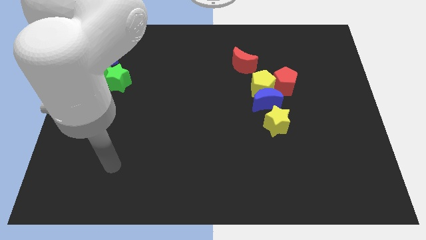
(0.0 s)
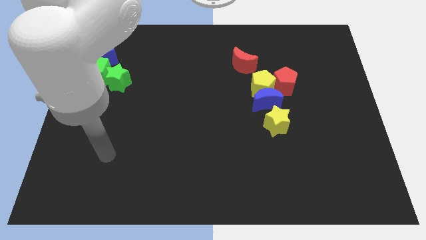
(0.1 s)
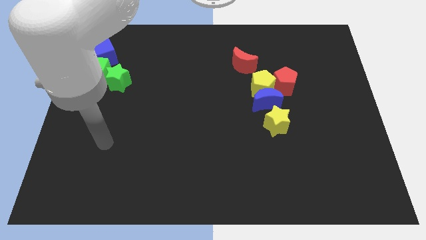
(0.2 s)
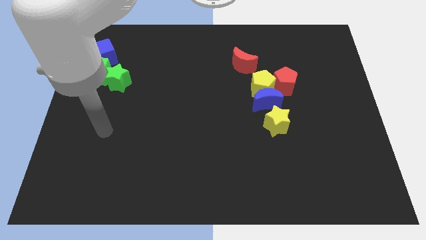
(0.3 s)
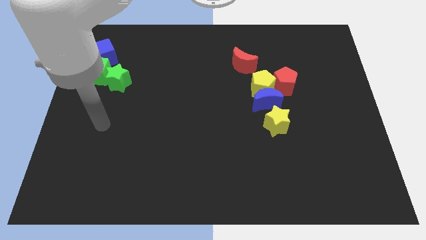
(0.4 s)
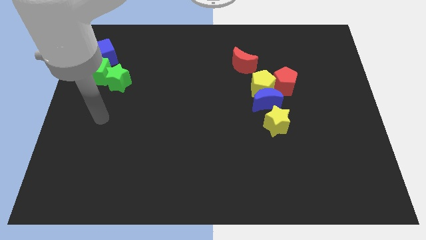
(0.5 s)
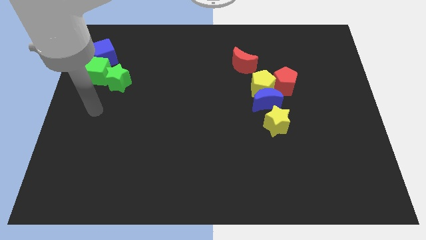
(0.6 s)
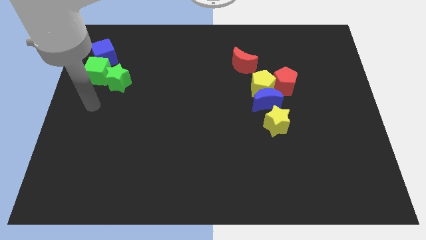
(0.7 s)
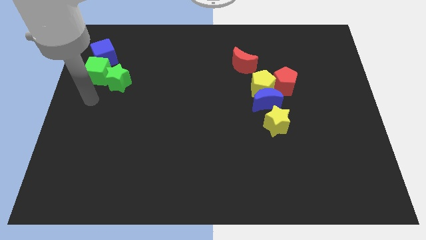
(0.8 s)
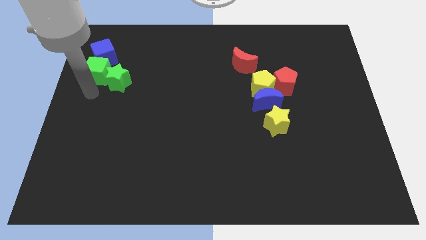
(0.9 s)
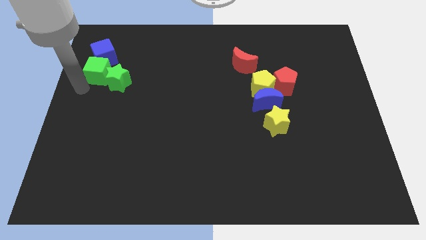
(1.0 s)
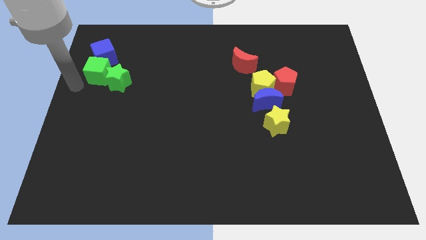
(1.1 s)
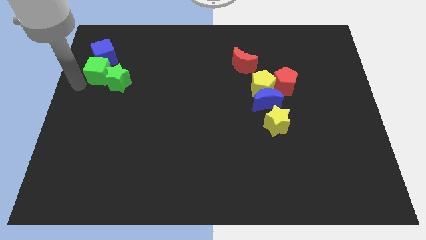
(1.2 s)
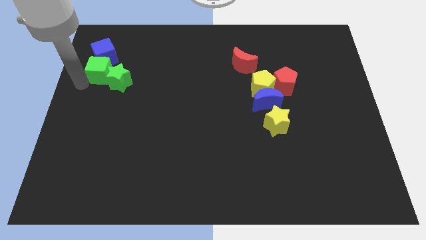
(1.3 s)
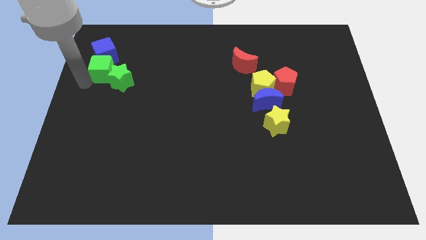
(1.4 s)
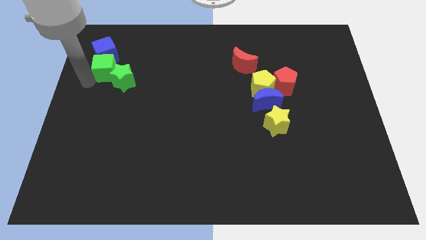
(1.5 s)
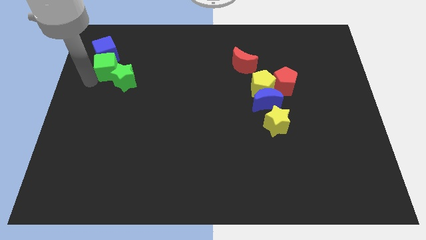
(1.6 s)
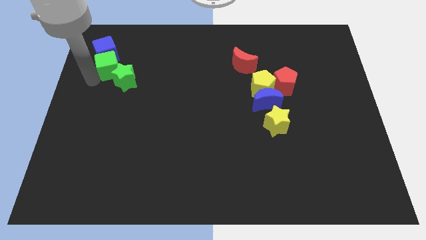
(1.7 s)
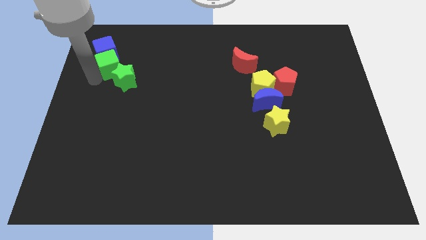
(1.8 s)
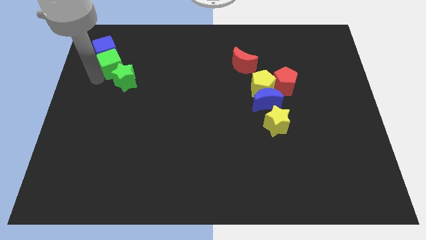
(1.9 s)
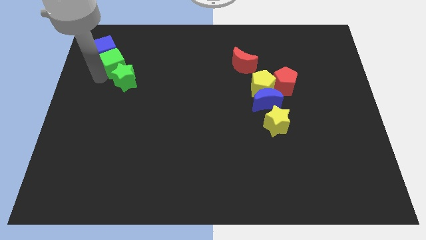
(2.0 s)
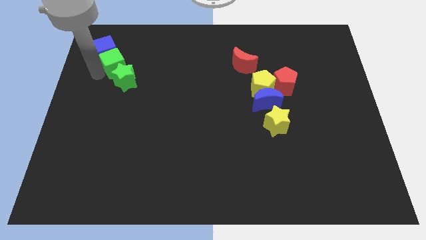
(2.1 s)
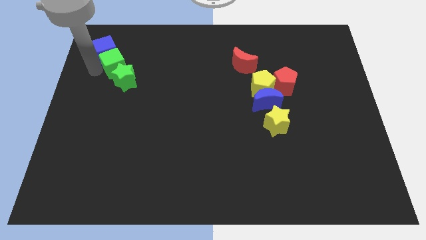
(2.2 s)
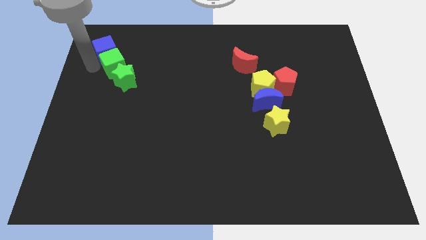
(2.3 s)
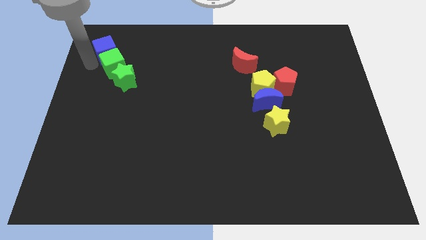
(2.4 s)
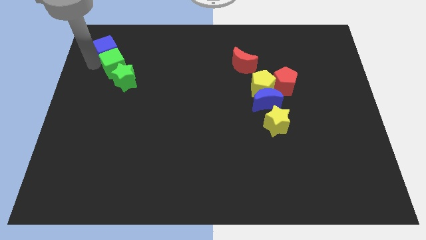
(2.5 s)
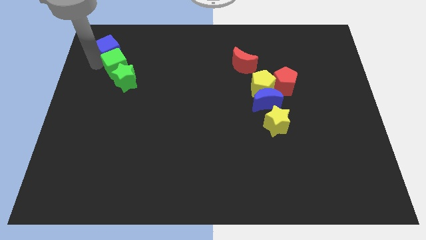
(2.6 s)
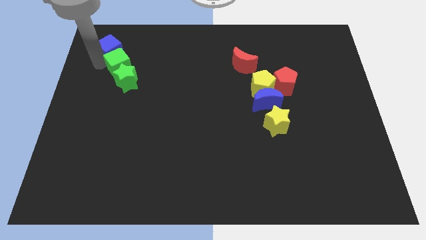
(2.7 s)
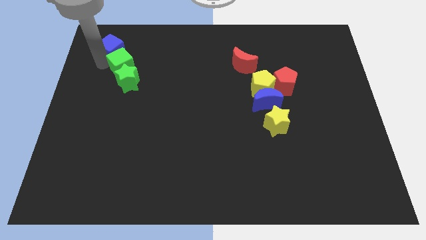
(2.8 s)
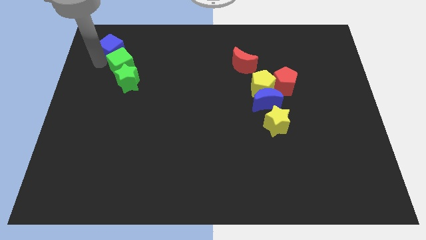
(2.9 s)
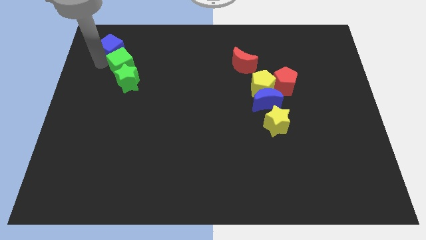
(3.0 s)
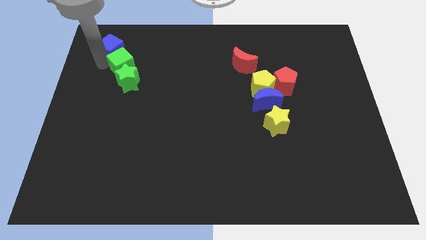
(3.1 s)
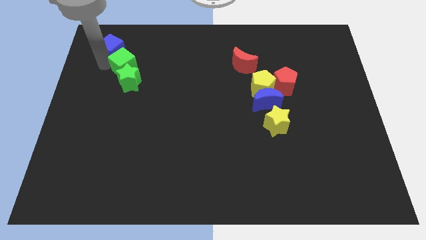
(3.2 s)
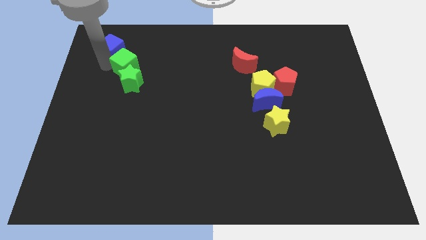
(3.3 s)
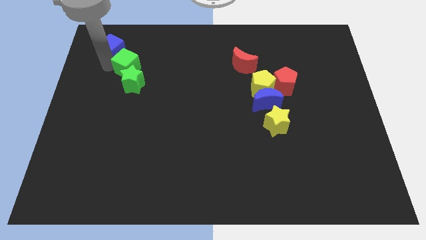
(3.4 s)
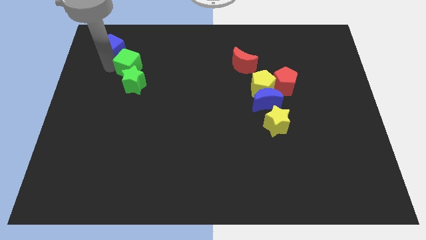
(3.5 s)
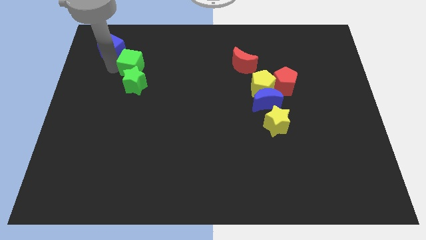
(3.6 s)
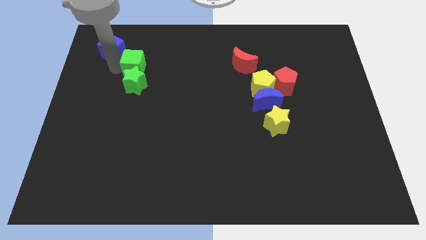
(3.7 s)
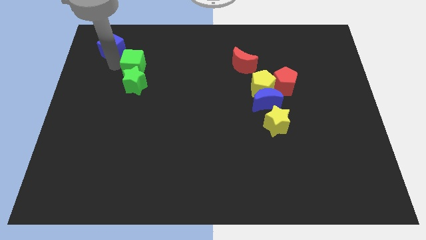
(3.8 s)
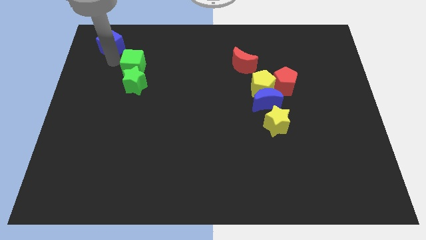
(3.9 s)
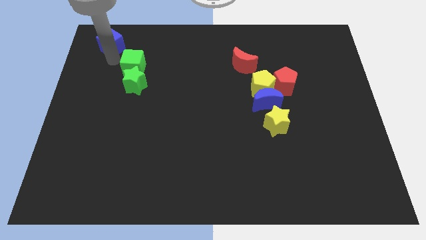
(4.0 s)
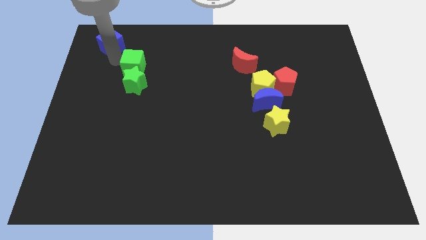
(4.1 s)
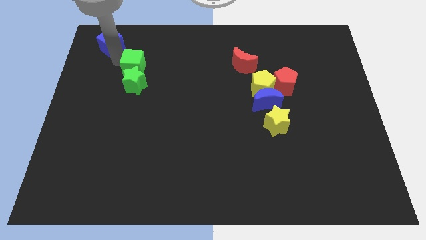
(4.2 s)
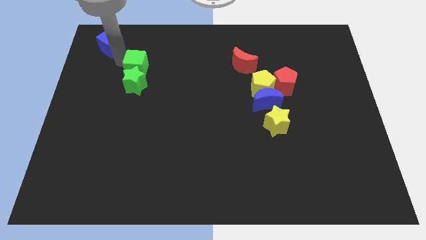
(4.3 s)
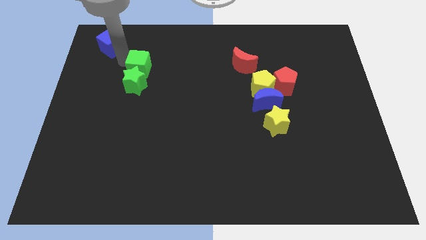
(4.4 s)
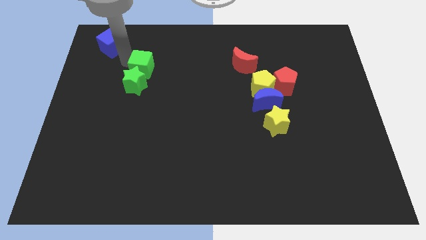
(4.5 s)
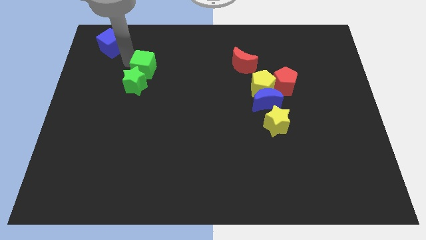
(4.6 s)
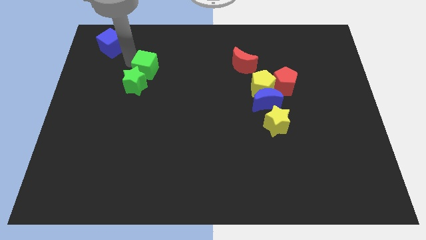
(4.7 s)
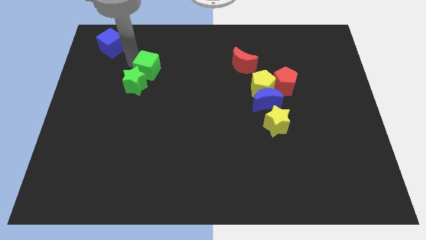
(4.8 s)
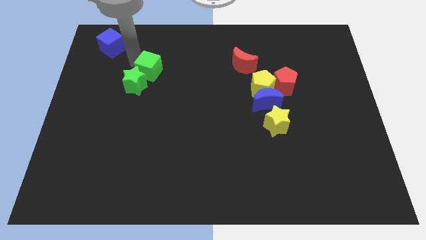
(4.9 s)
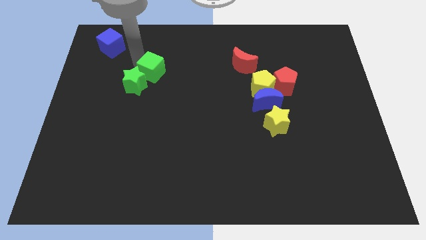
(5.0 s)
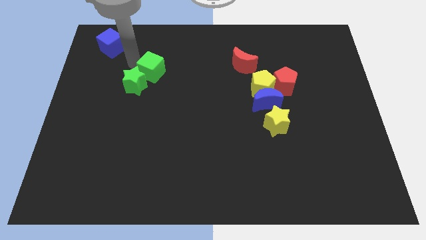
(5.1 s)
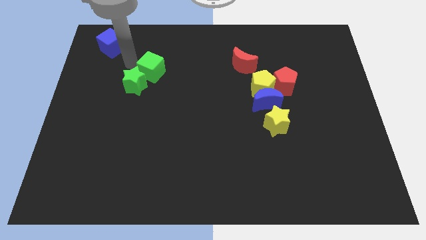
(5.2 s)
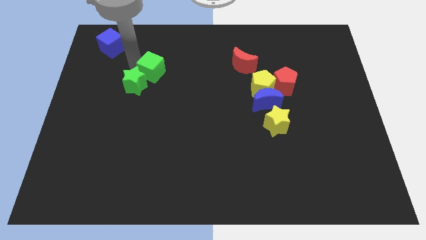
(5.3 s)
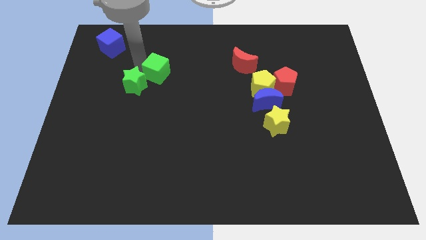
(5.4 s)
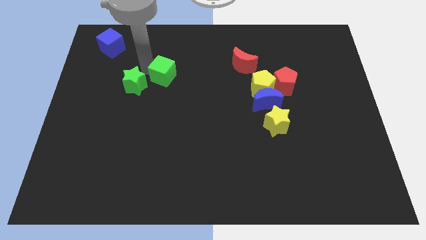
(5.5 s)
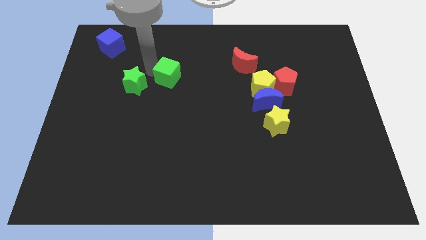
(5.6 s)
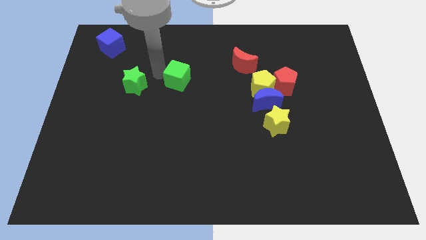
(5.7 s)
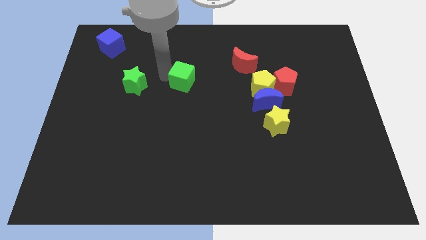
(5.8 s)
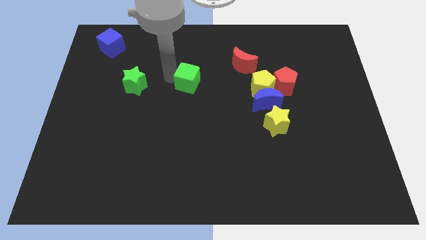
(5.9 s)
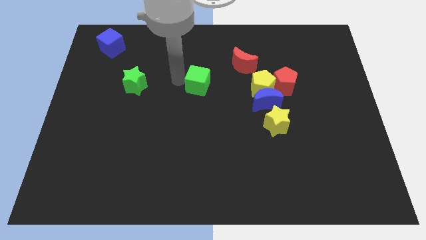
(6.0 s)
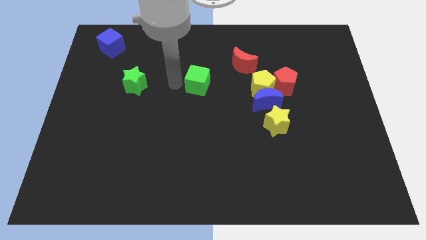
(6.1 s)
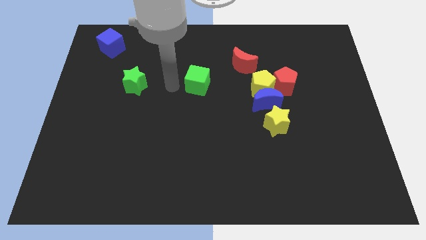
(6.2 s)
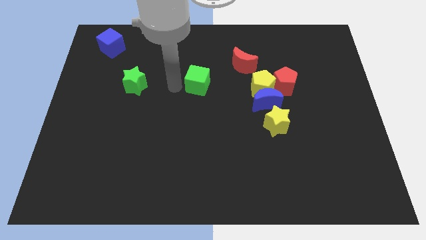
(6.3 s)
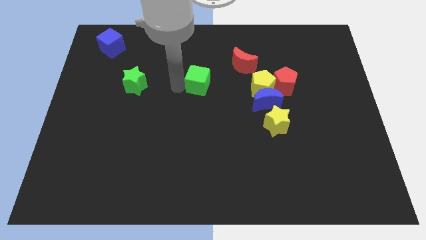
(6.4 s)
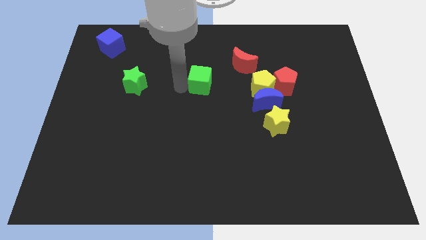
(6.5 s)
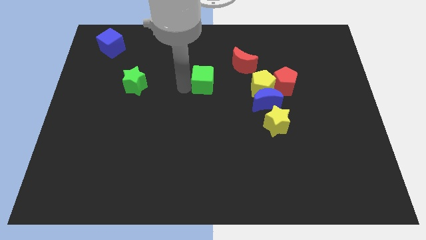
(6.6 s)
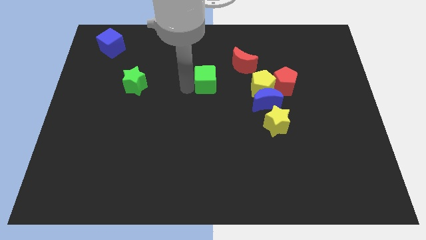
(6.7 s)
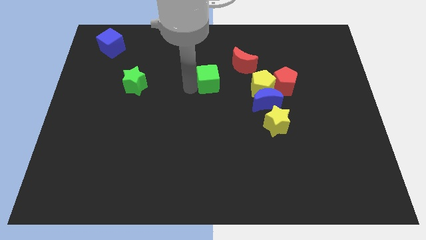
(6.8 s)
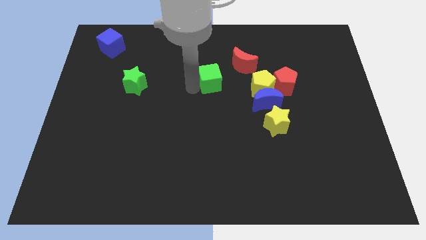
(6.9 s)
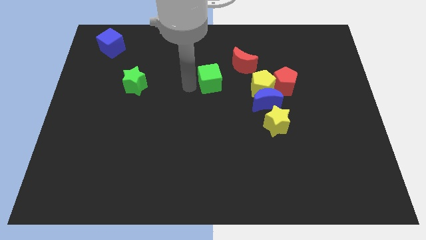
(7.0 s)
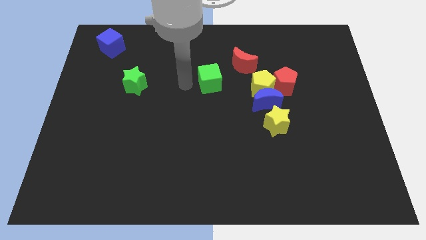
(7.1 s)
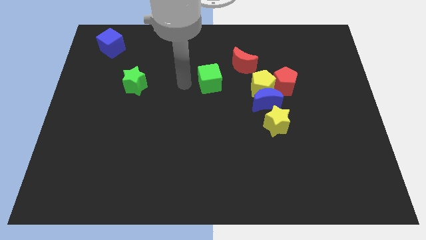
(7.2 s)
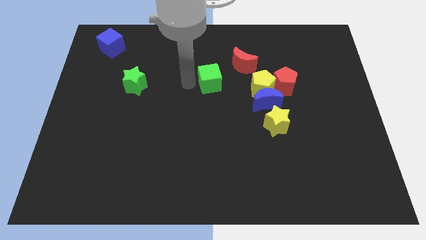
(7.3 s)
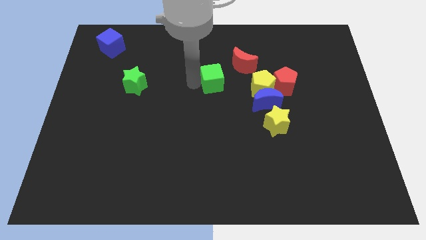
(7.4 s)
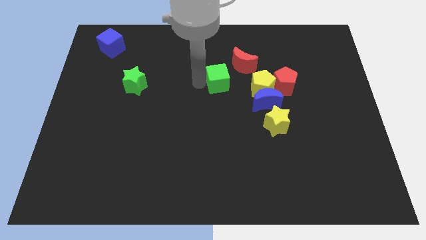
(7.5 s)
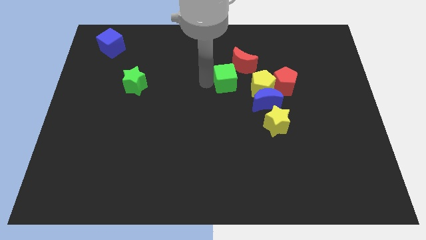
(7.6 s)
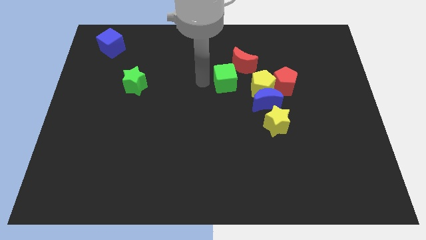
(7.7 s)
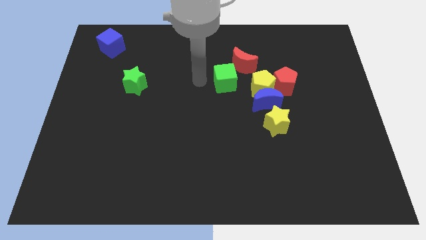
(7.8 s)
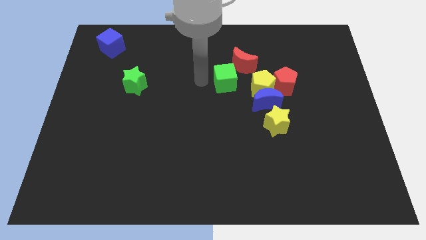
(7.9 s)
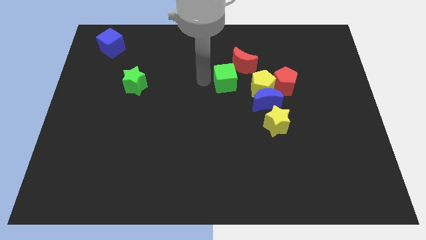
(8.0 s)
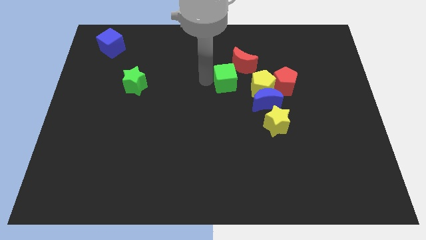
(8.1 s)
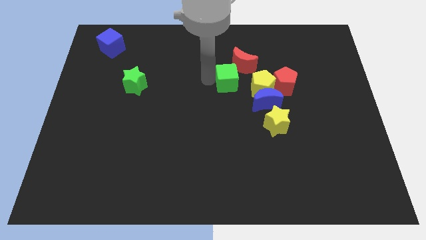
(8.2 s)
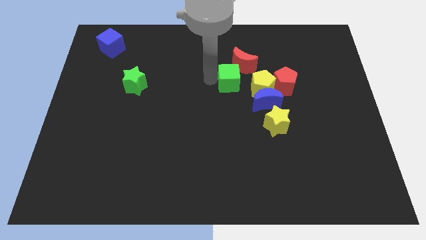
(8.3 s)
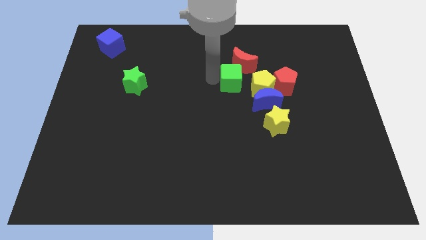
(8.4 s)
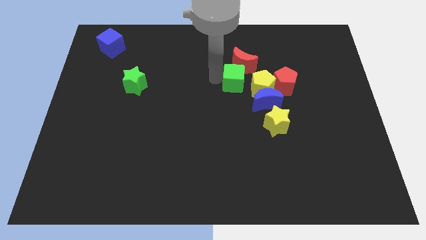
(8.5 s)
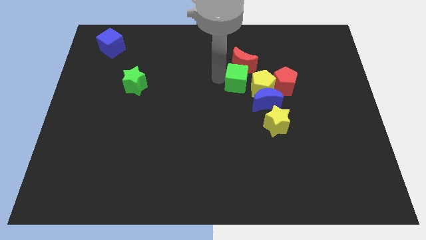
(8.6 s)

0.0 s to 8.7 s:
push the green cube towards the yellow pentagon
